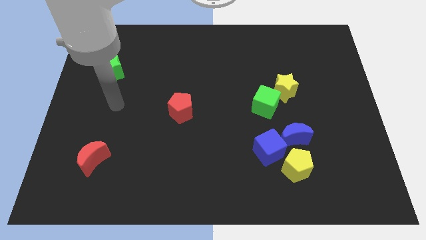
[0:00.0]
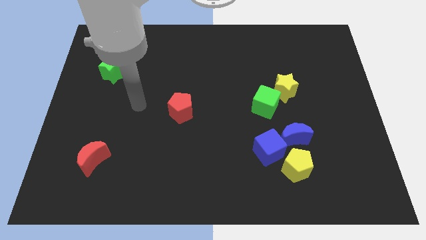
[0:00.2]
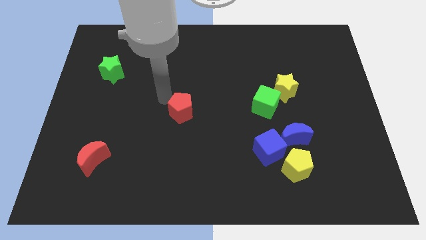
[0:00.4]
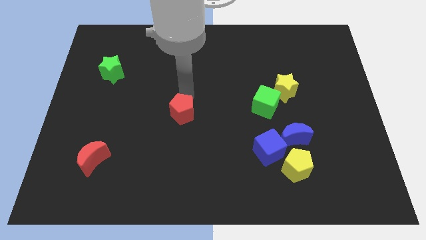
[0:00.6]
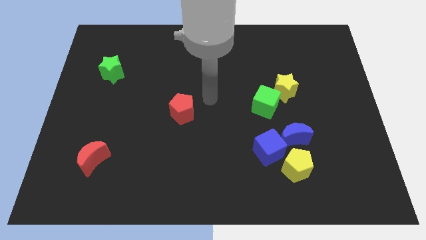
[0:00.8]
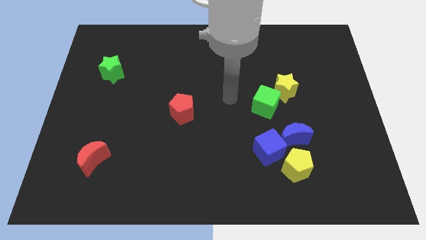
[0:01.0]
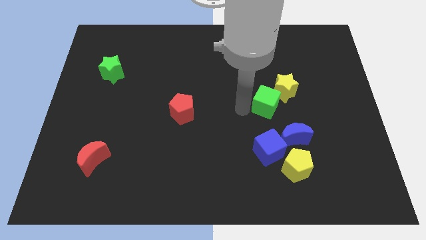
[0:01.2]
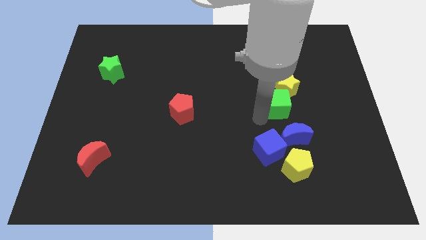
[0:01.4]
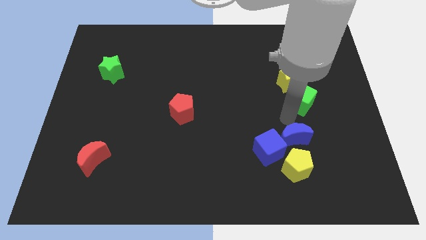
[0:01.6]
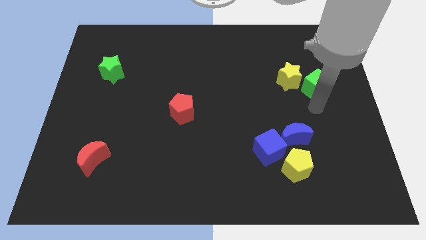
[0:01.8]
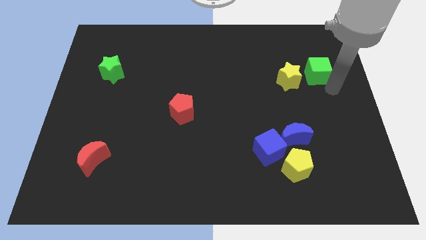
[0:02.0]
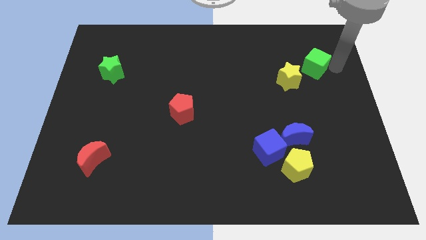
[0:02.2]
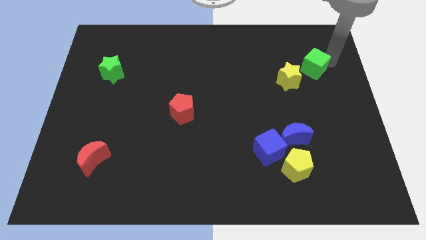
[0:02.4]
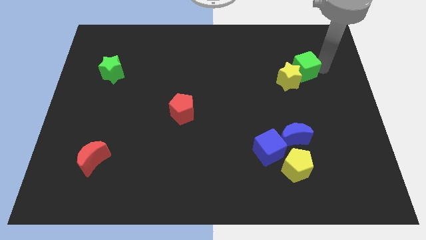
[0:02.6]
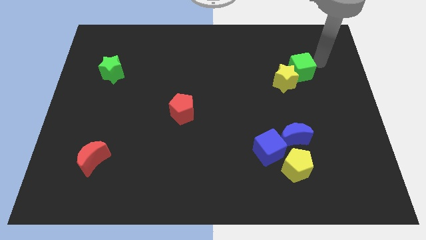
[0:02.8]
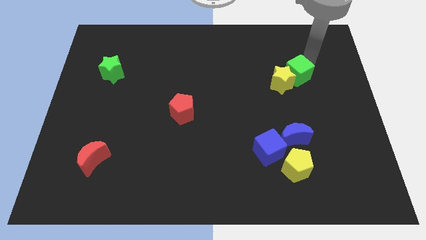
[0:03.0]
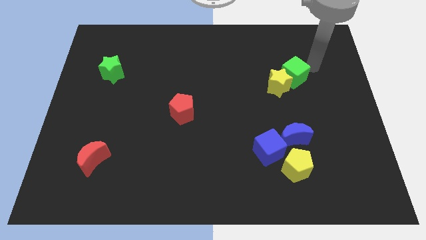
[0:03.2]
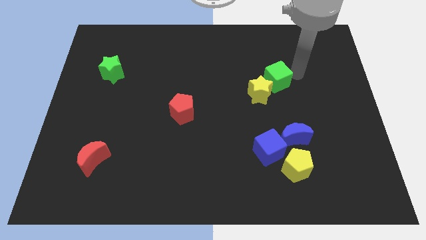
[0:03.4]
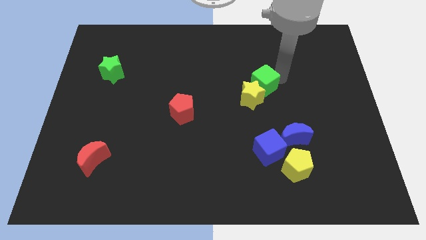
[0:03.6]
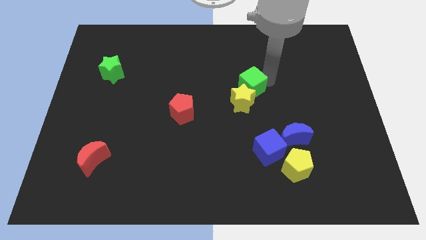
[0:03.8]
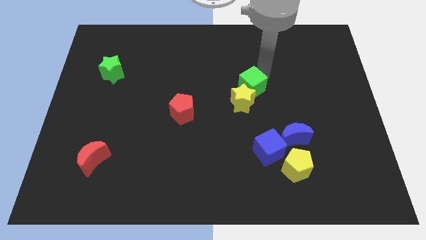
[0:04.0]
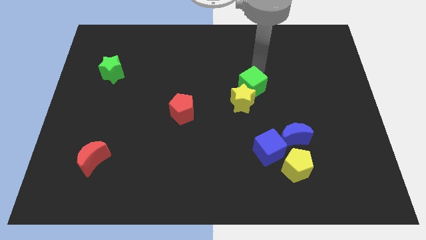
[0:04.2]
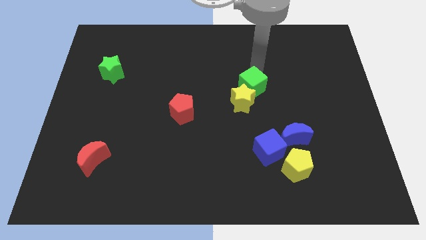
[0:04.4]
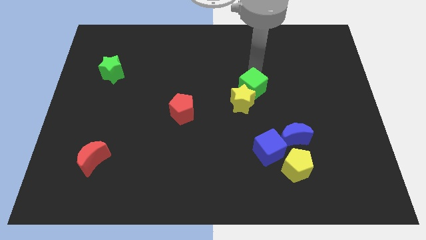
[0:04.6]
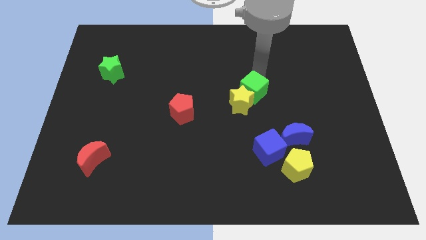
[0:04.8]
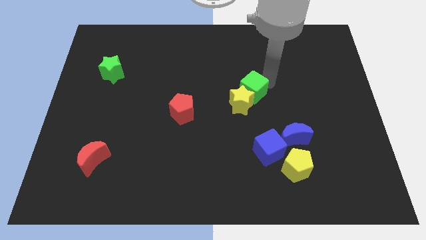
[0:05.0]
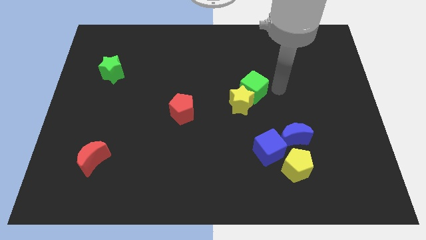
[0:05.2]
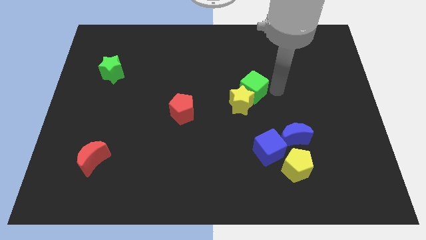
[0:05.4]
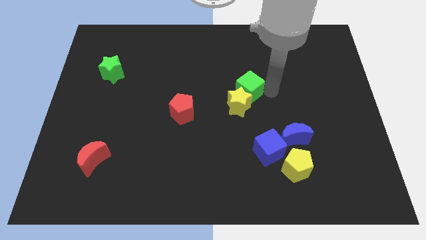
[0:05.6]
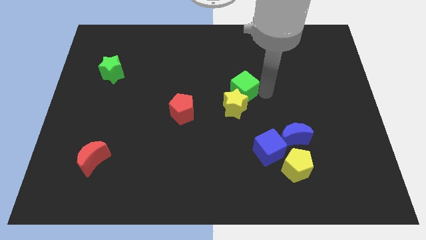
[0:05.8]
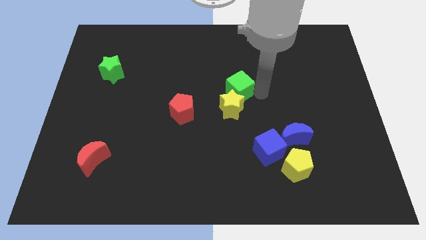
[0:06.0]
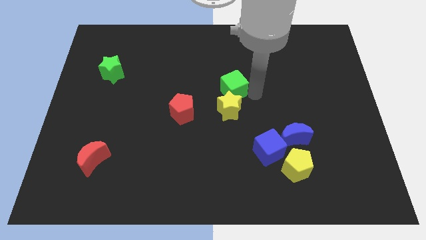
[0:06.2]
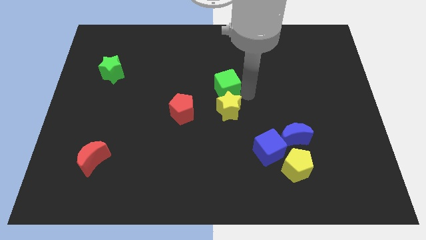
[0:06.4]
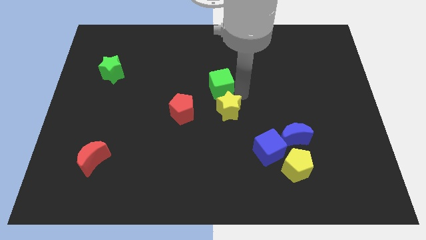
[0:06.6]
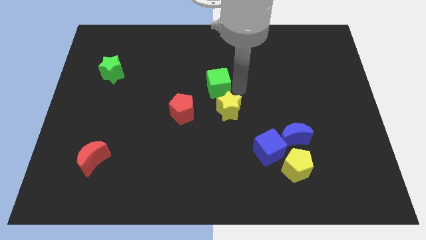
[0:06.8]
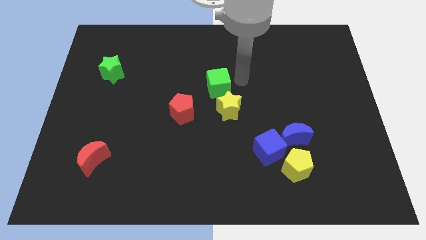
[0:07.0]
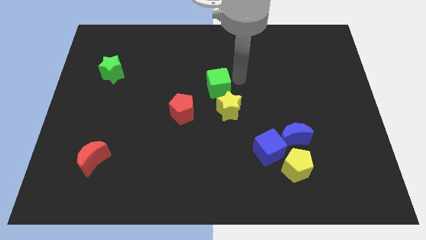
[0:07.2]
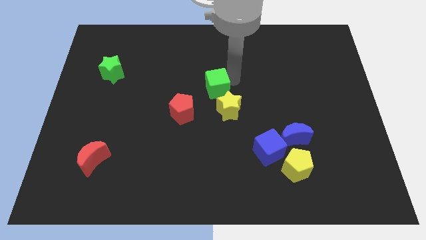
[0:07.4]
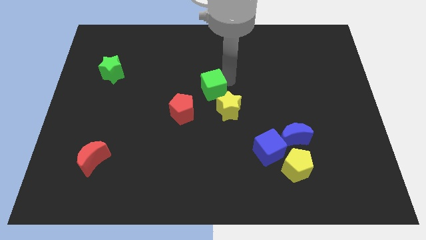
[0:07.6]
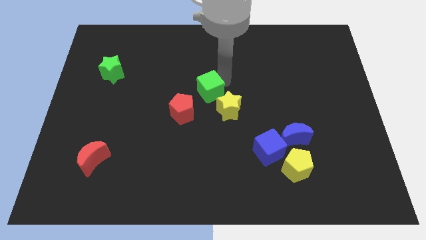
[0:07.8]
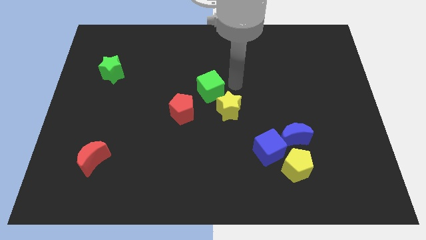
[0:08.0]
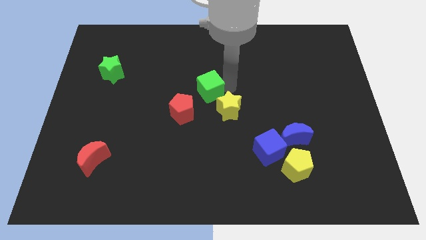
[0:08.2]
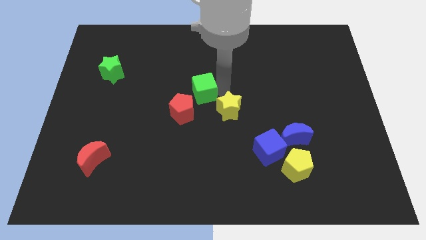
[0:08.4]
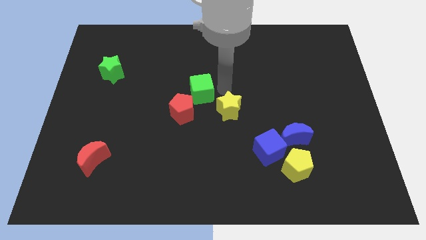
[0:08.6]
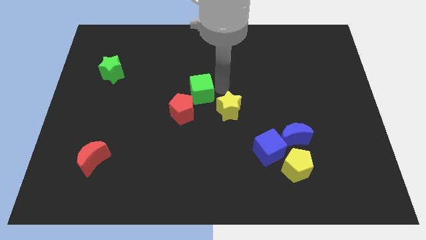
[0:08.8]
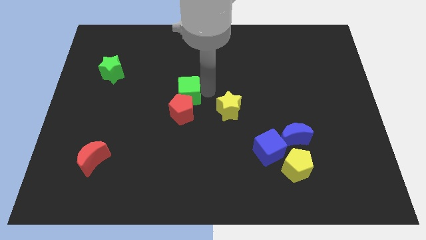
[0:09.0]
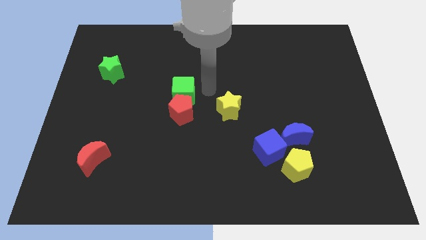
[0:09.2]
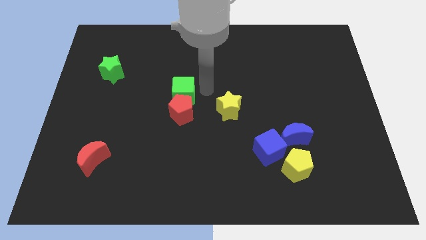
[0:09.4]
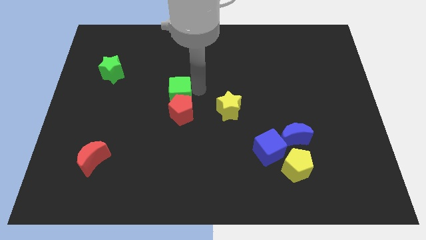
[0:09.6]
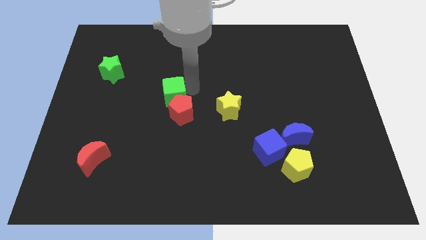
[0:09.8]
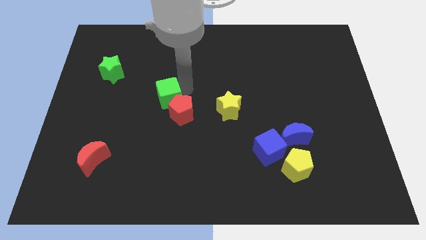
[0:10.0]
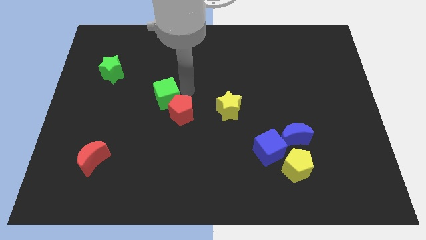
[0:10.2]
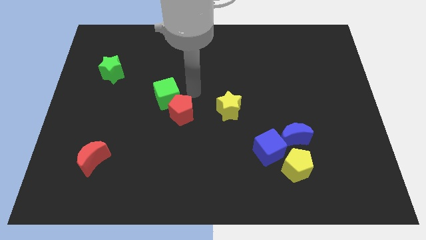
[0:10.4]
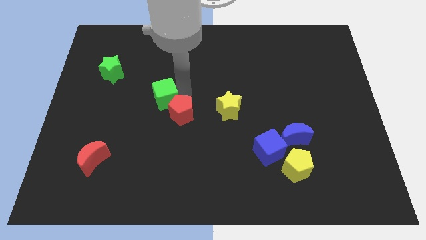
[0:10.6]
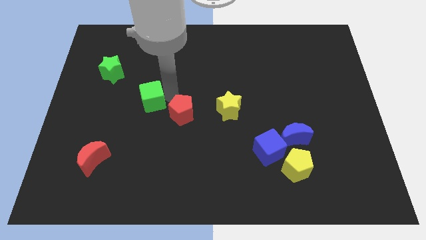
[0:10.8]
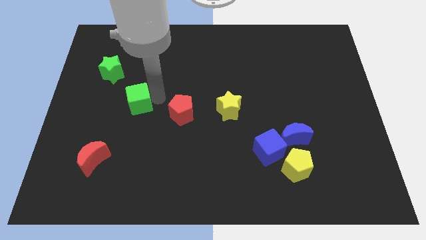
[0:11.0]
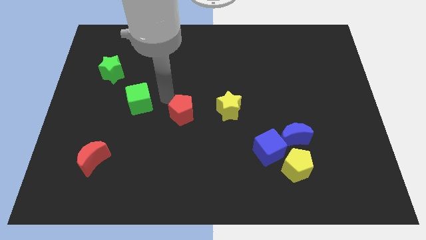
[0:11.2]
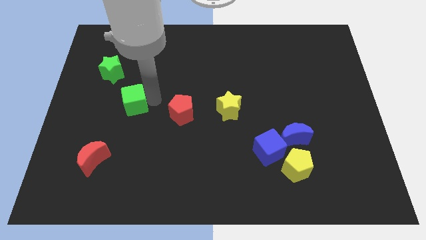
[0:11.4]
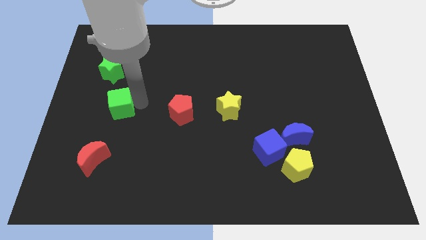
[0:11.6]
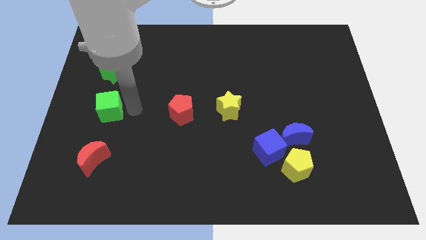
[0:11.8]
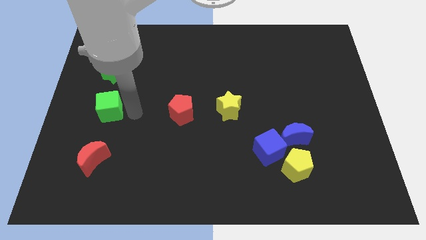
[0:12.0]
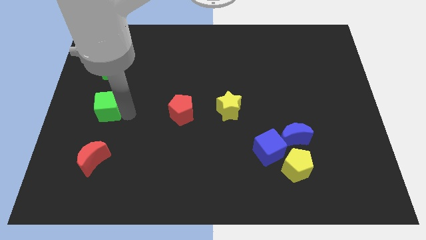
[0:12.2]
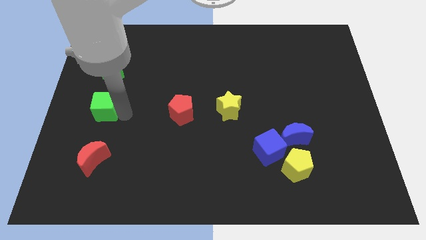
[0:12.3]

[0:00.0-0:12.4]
put the green cube to the center left
